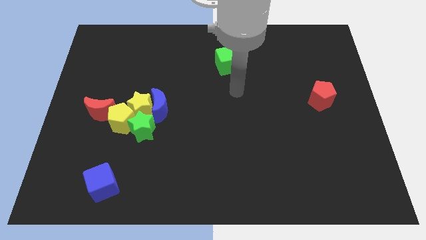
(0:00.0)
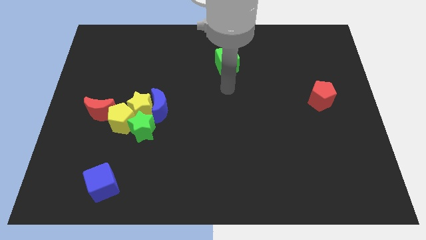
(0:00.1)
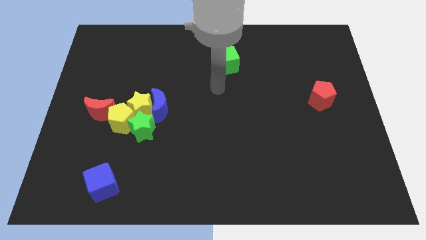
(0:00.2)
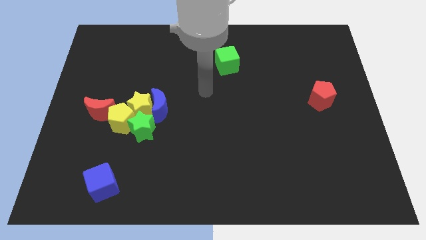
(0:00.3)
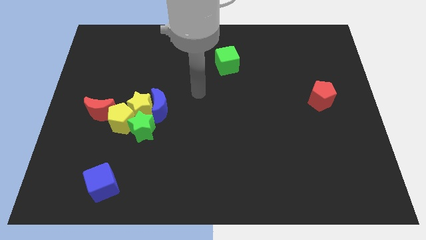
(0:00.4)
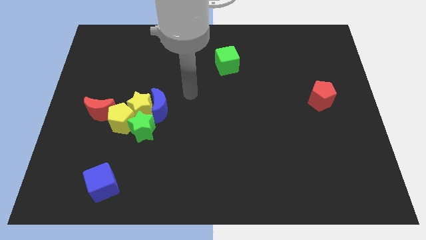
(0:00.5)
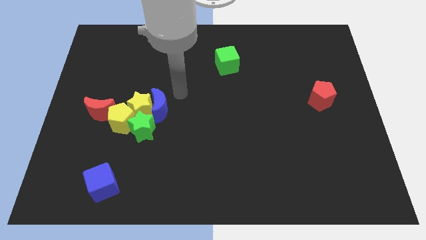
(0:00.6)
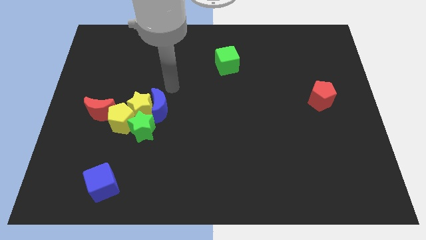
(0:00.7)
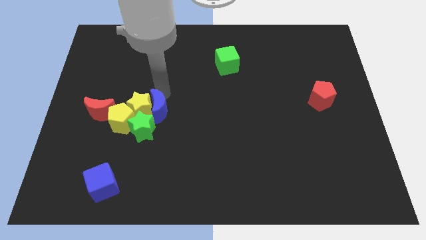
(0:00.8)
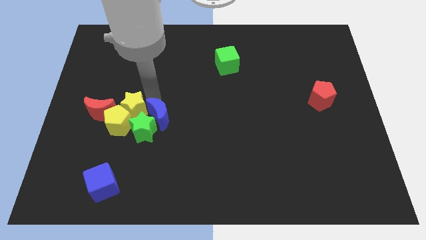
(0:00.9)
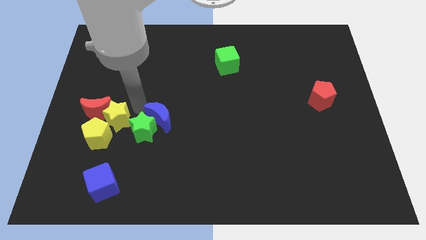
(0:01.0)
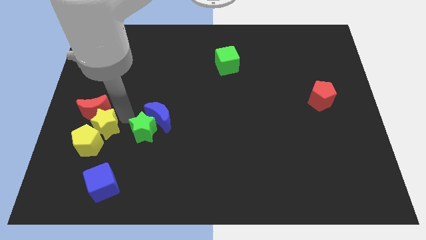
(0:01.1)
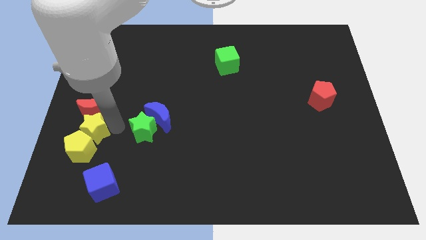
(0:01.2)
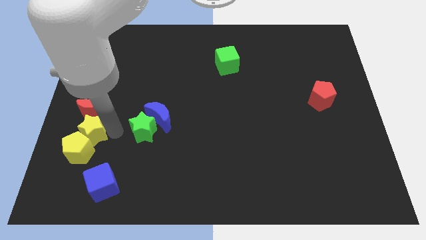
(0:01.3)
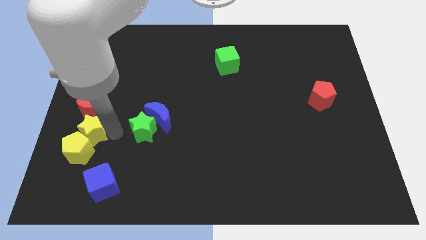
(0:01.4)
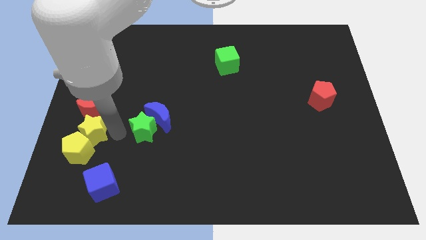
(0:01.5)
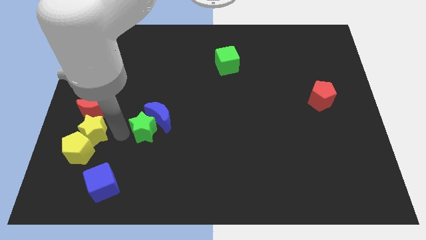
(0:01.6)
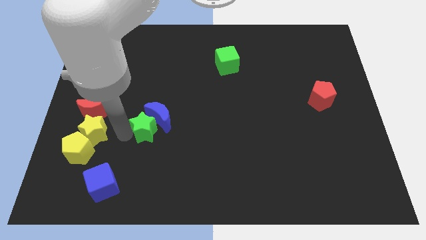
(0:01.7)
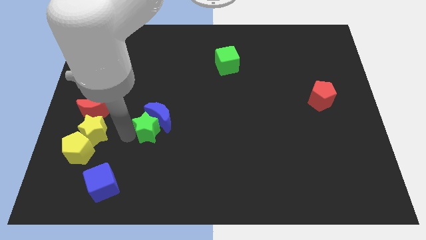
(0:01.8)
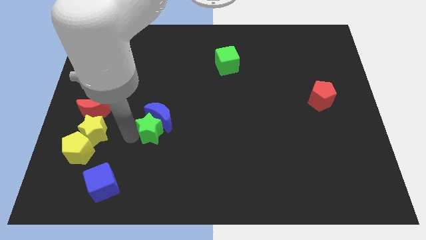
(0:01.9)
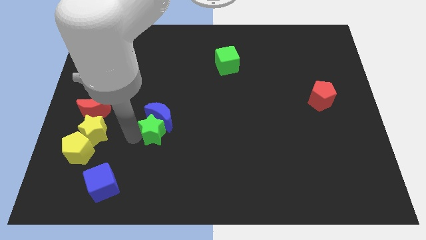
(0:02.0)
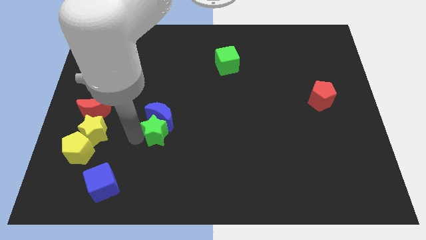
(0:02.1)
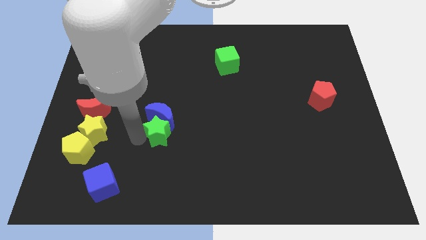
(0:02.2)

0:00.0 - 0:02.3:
move the green star away from the yellow pentagon, yellow star, and blue moon

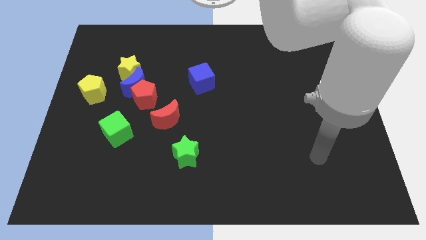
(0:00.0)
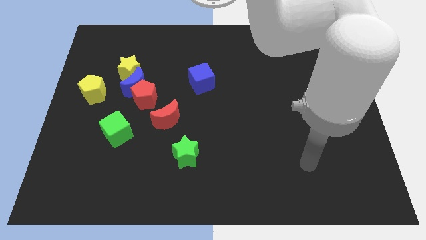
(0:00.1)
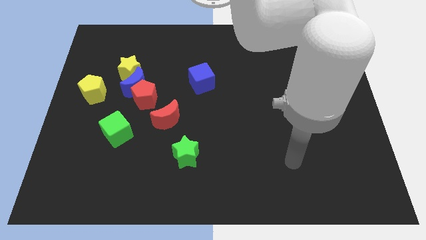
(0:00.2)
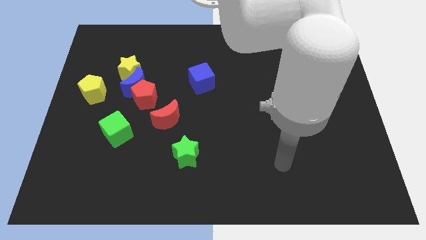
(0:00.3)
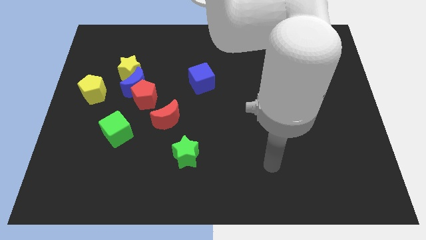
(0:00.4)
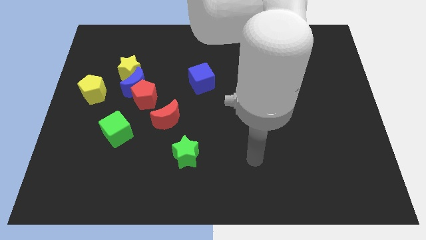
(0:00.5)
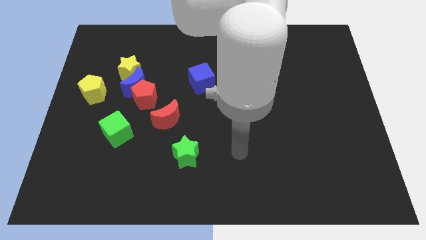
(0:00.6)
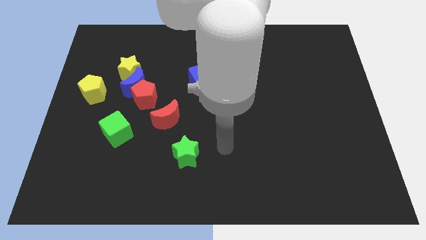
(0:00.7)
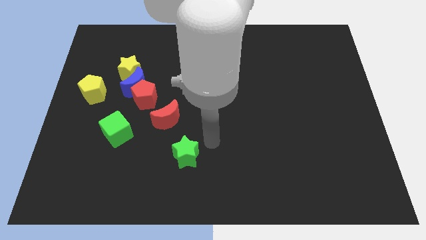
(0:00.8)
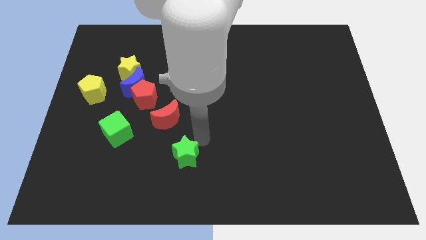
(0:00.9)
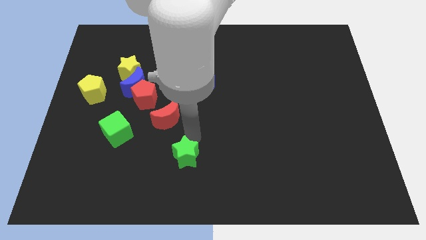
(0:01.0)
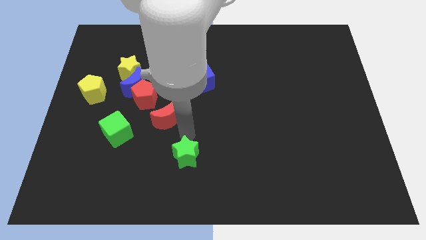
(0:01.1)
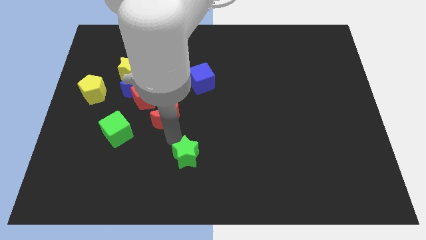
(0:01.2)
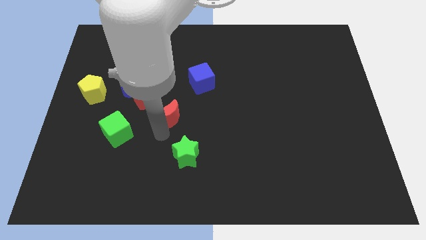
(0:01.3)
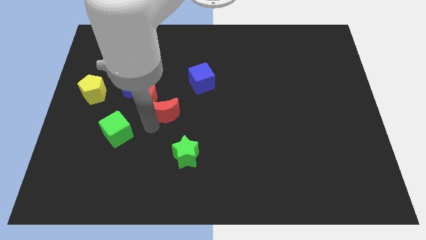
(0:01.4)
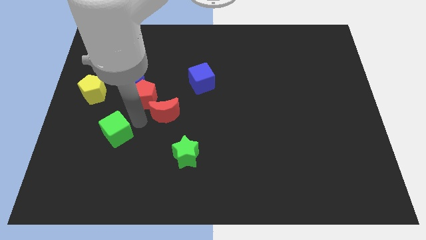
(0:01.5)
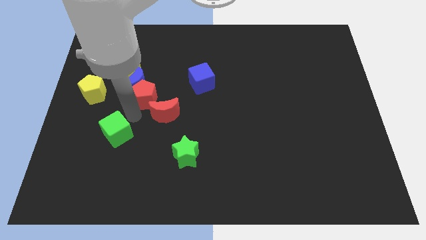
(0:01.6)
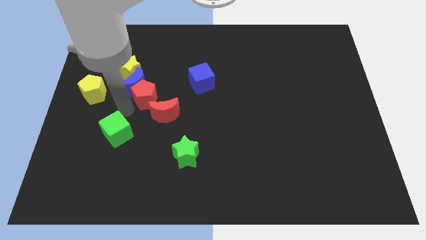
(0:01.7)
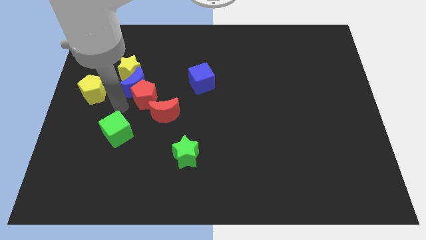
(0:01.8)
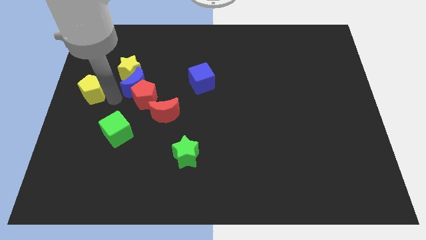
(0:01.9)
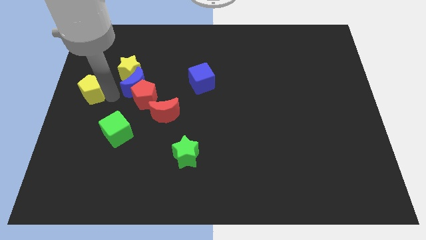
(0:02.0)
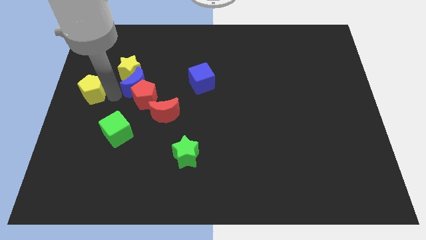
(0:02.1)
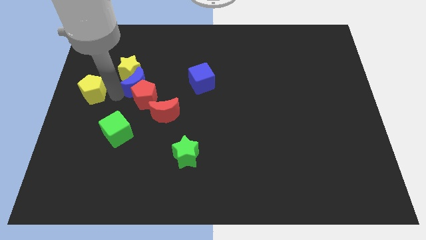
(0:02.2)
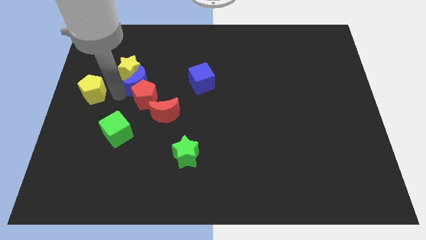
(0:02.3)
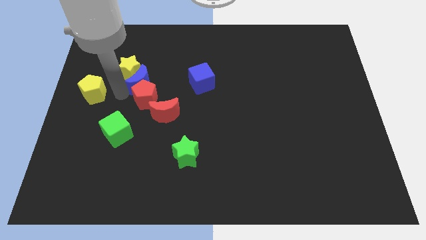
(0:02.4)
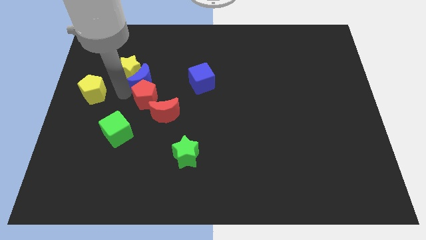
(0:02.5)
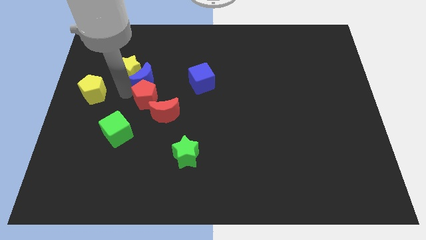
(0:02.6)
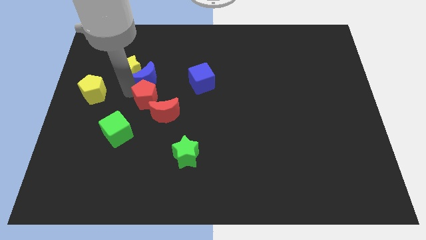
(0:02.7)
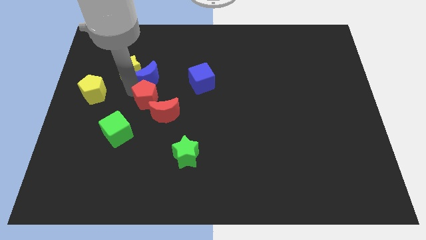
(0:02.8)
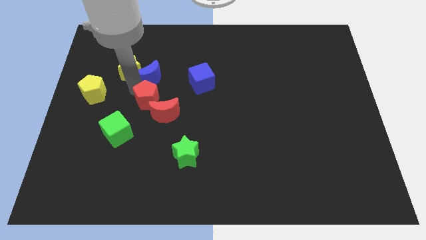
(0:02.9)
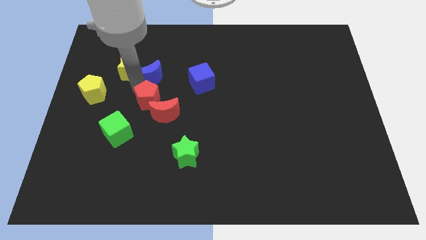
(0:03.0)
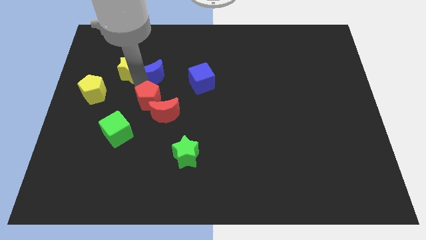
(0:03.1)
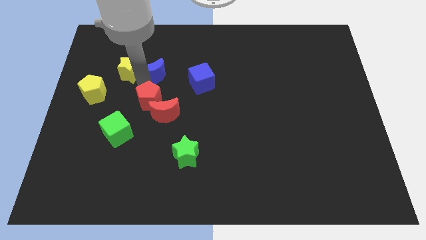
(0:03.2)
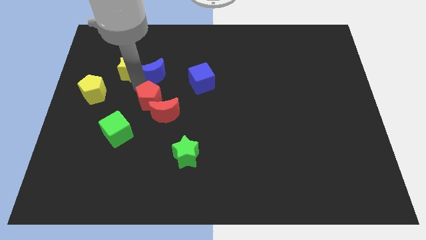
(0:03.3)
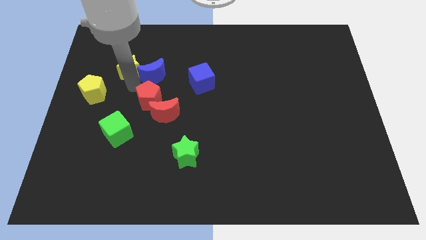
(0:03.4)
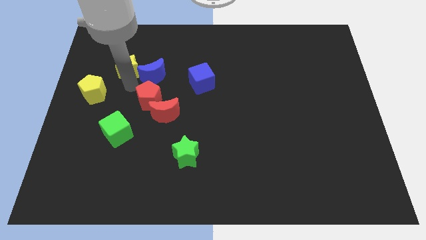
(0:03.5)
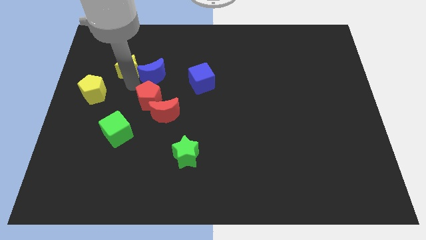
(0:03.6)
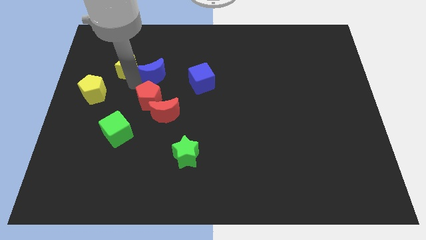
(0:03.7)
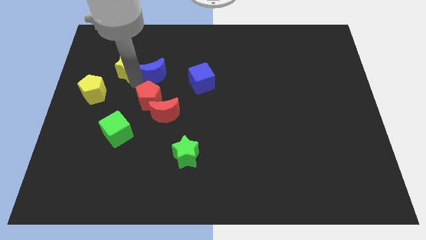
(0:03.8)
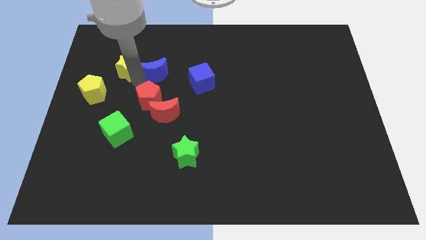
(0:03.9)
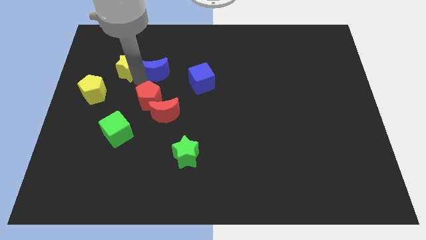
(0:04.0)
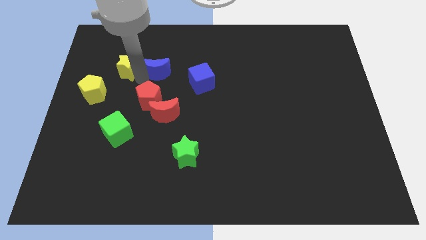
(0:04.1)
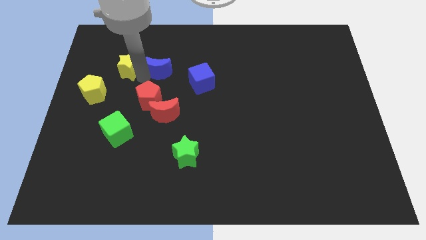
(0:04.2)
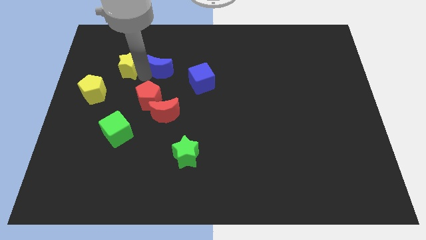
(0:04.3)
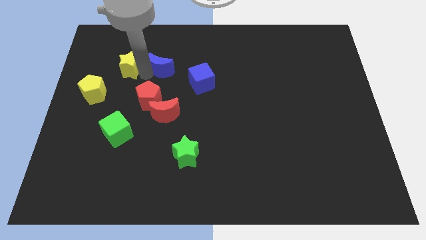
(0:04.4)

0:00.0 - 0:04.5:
separate the blue moon from the red pentagon, yellow star, and yellow pentagon

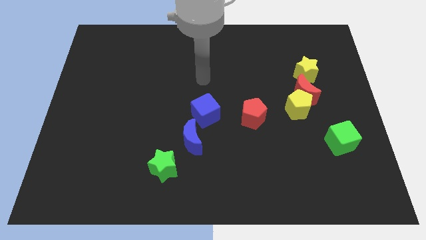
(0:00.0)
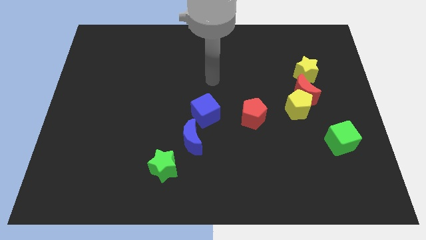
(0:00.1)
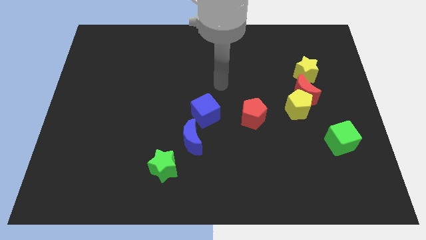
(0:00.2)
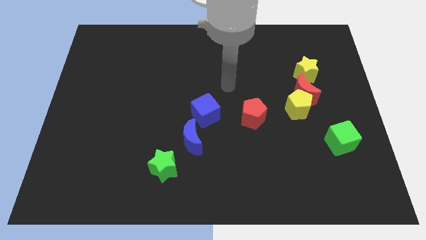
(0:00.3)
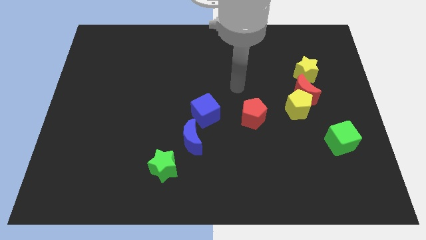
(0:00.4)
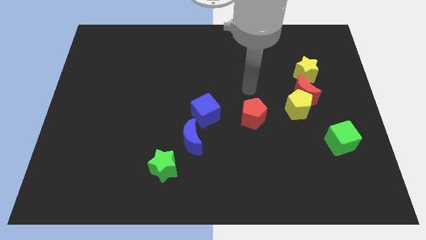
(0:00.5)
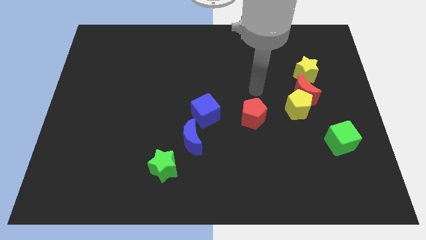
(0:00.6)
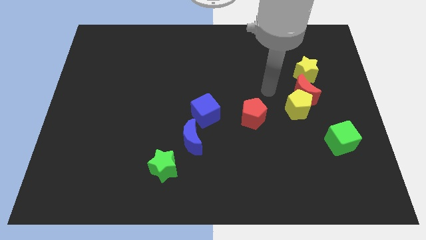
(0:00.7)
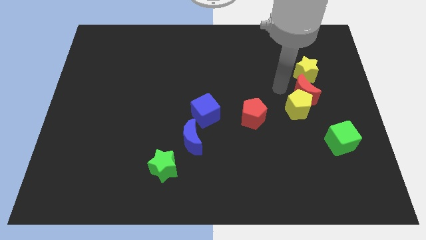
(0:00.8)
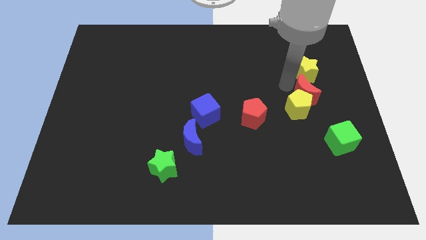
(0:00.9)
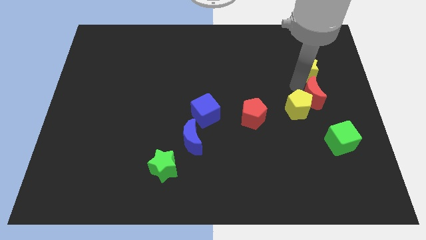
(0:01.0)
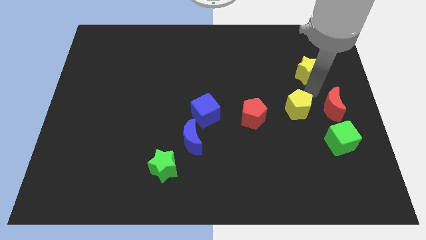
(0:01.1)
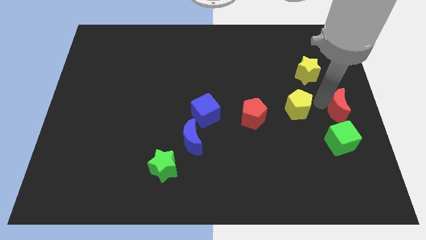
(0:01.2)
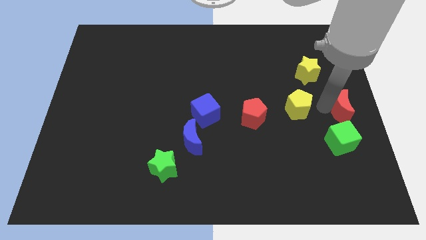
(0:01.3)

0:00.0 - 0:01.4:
pull the yellow pentagon apart from the red moon

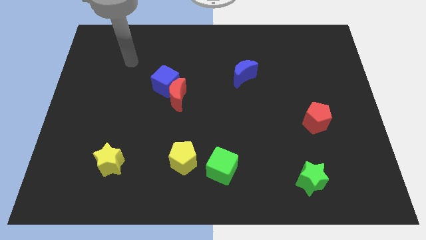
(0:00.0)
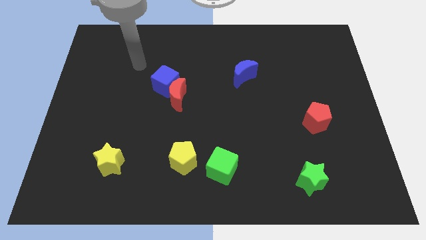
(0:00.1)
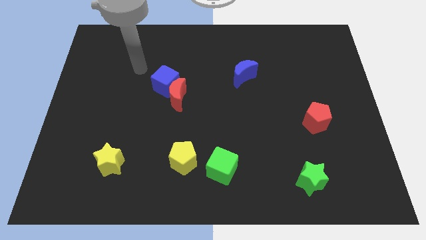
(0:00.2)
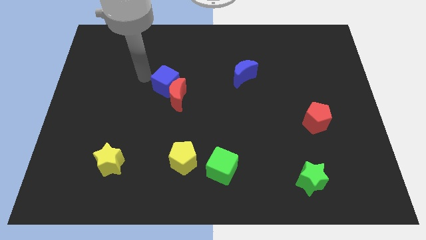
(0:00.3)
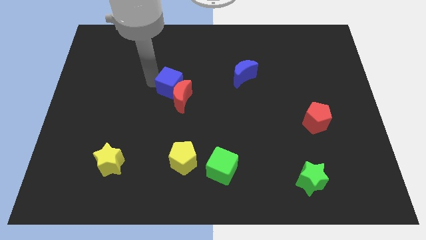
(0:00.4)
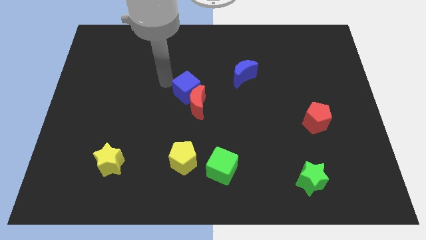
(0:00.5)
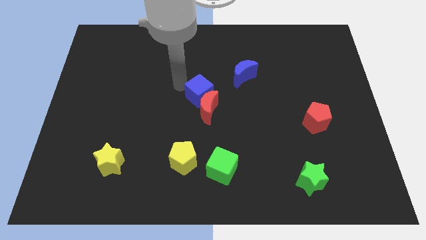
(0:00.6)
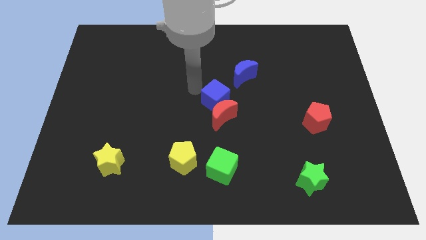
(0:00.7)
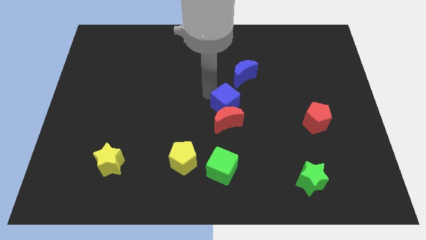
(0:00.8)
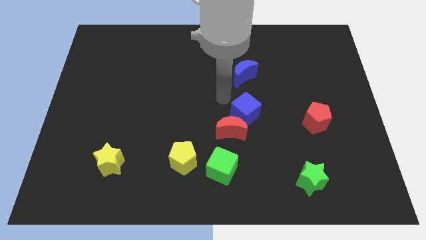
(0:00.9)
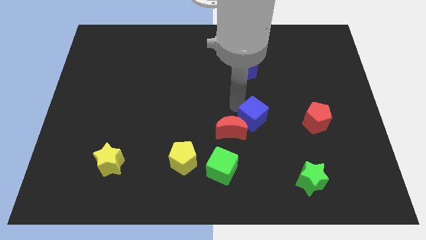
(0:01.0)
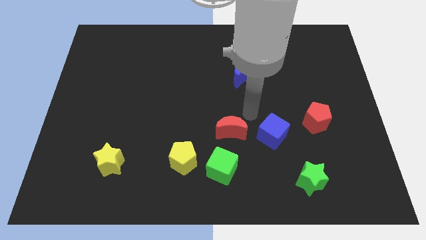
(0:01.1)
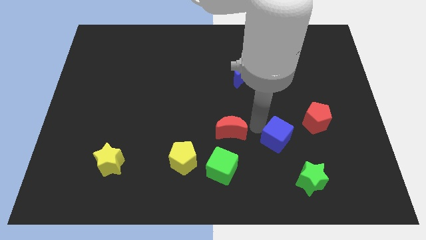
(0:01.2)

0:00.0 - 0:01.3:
pull the red moon apart from the blue cube
